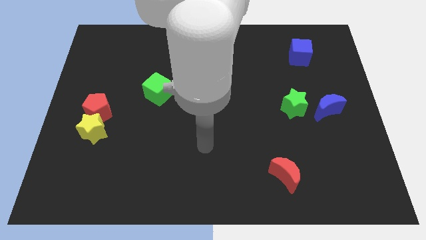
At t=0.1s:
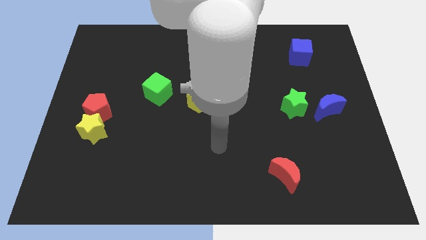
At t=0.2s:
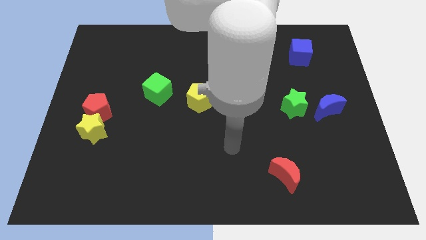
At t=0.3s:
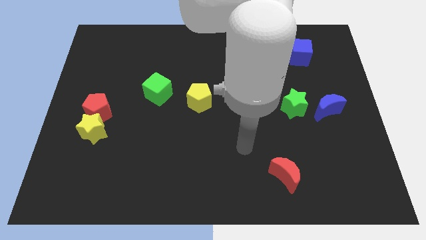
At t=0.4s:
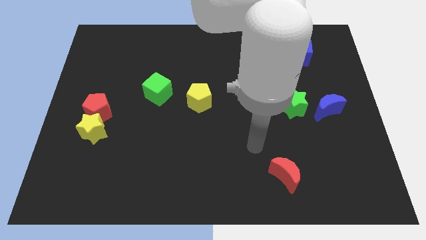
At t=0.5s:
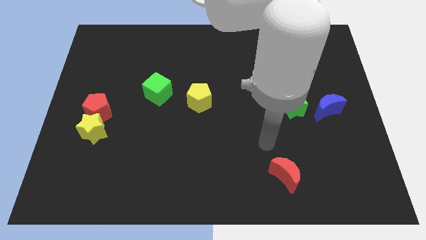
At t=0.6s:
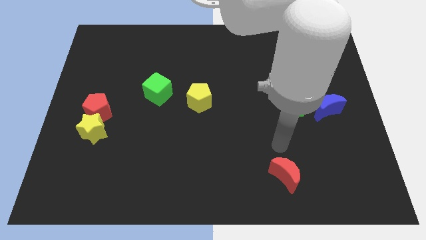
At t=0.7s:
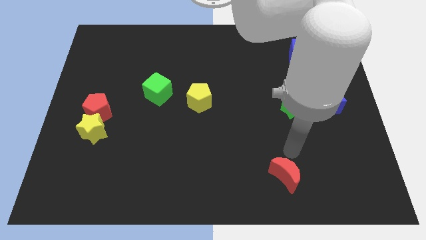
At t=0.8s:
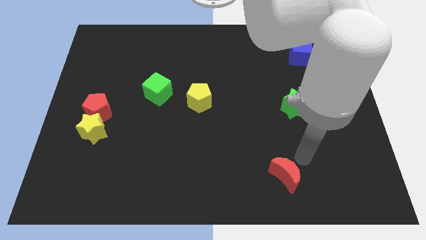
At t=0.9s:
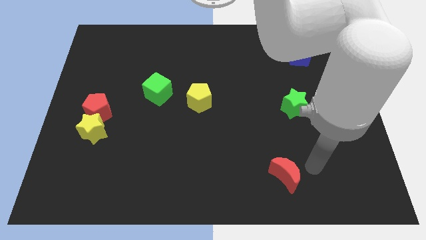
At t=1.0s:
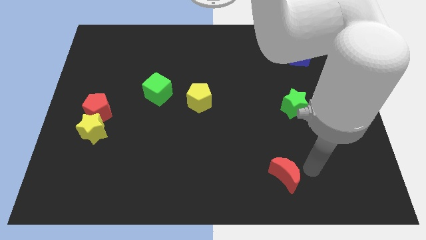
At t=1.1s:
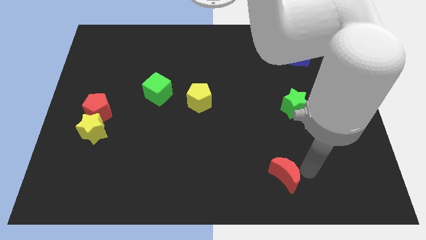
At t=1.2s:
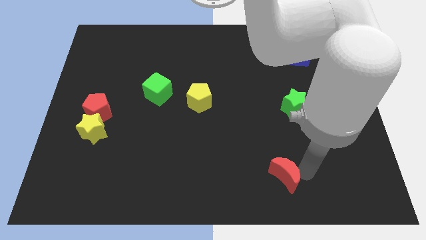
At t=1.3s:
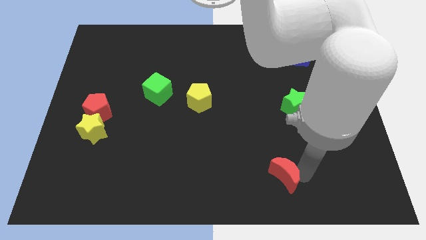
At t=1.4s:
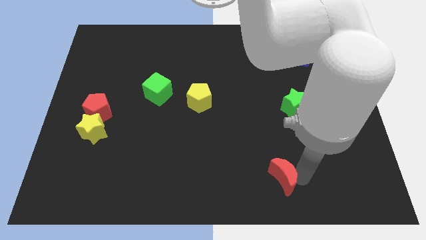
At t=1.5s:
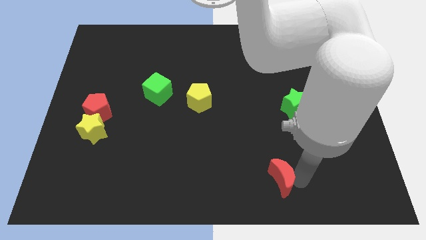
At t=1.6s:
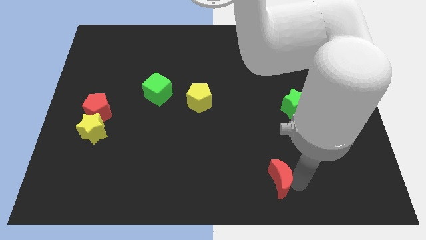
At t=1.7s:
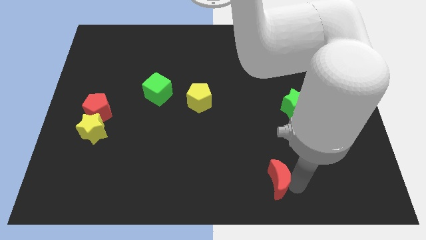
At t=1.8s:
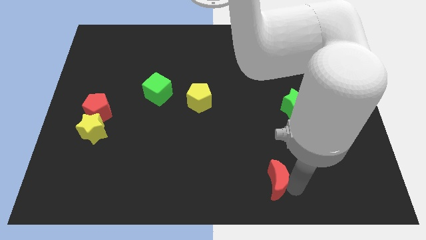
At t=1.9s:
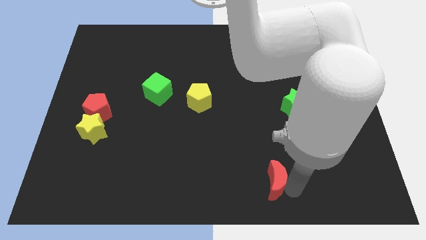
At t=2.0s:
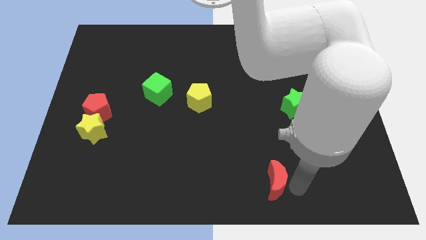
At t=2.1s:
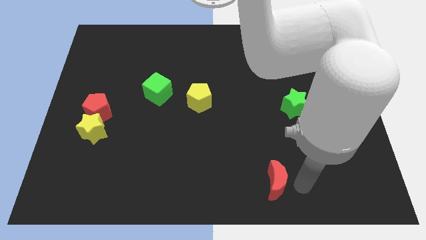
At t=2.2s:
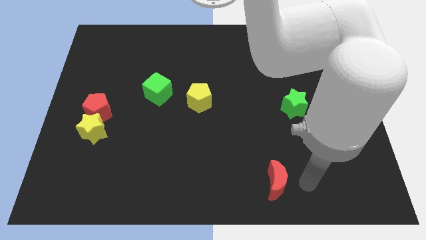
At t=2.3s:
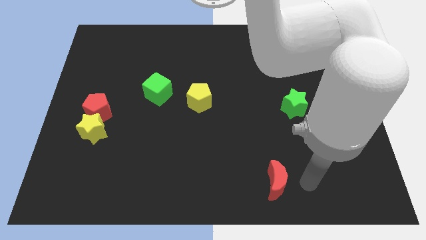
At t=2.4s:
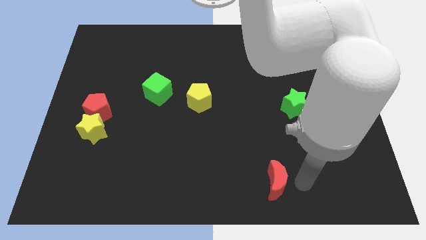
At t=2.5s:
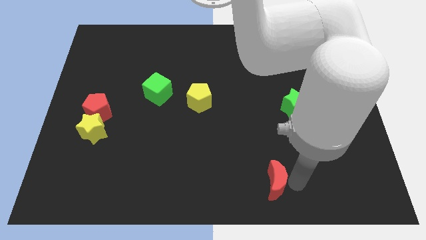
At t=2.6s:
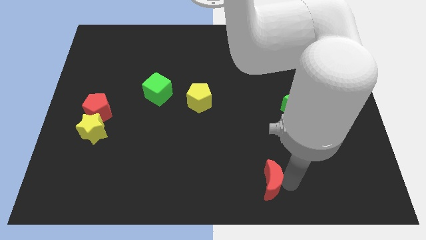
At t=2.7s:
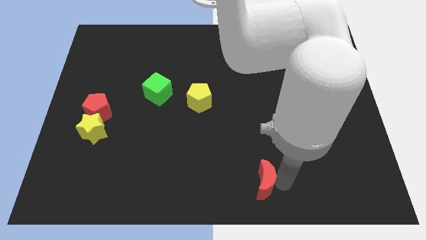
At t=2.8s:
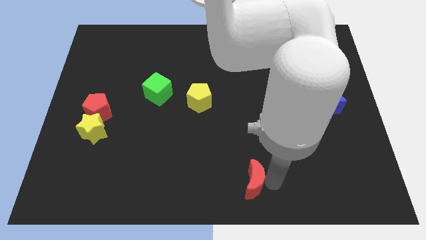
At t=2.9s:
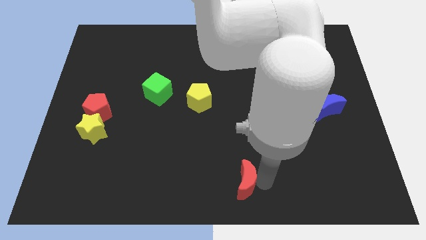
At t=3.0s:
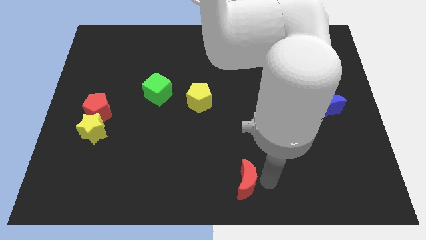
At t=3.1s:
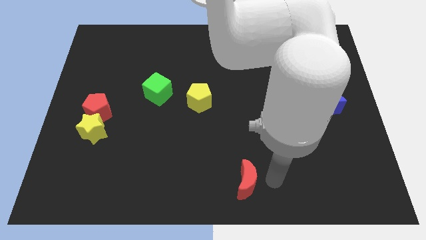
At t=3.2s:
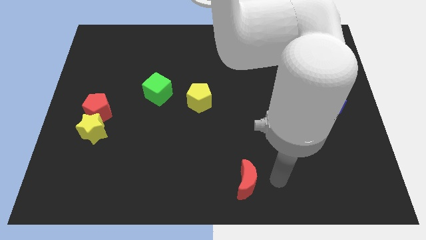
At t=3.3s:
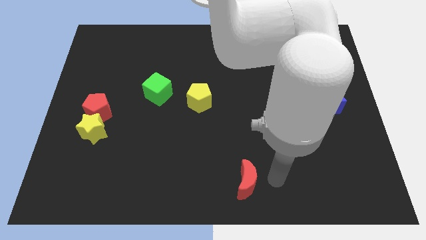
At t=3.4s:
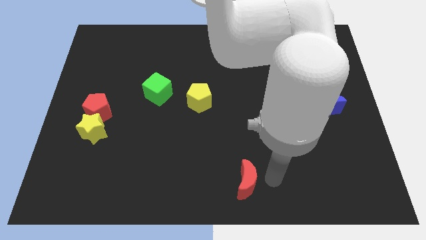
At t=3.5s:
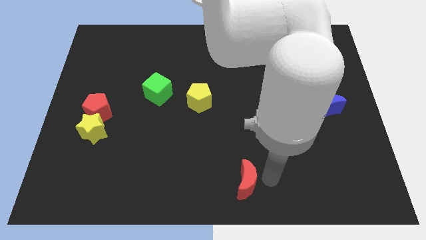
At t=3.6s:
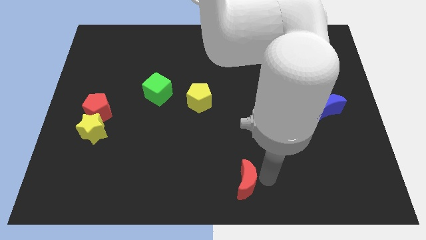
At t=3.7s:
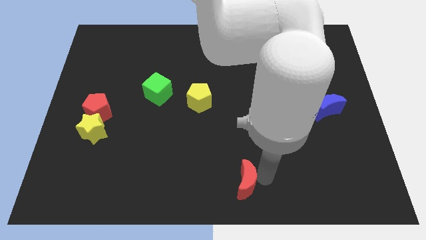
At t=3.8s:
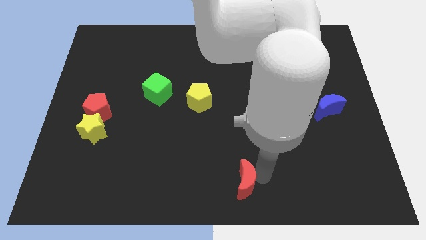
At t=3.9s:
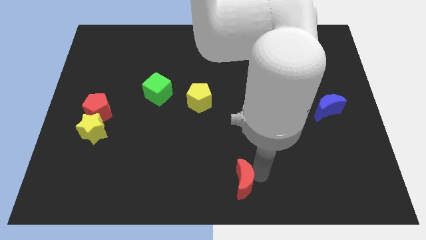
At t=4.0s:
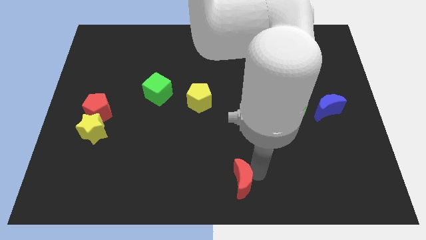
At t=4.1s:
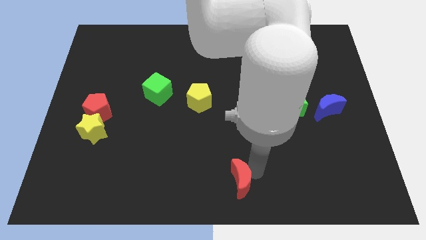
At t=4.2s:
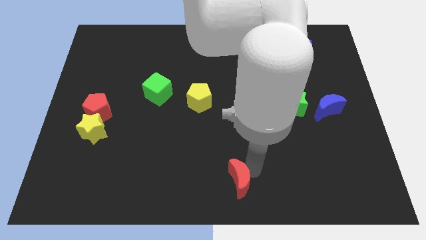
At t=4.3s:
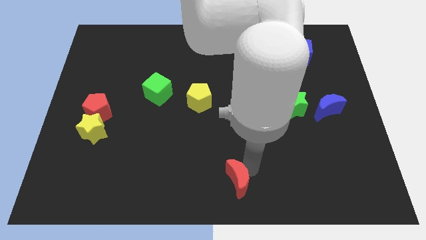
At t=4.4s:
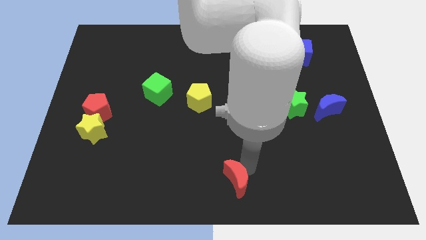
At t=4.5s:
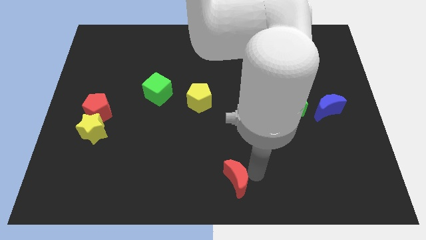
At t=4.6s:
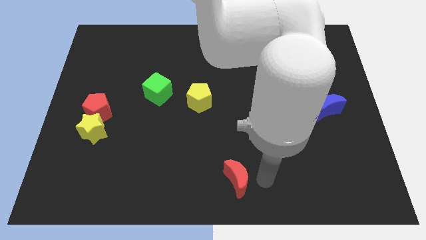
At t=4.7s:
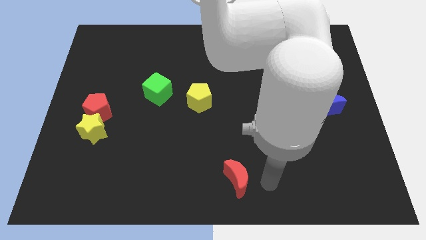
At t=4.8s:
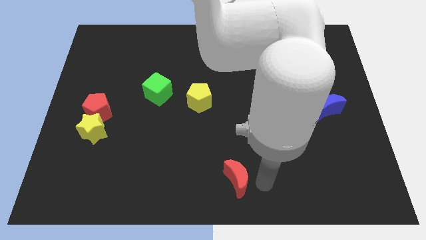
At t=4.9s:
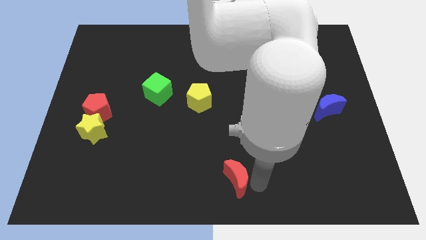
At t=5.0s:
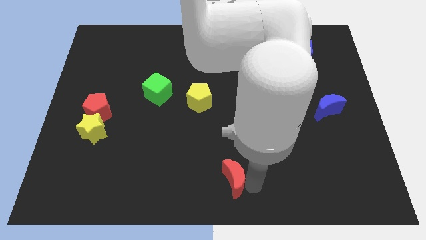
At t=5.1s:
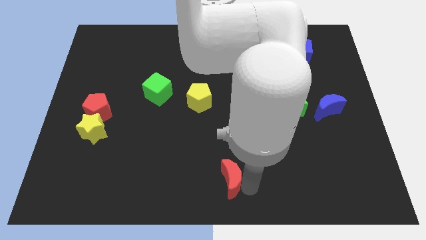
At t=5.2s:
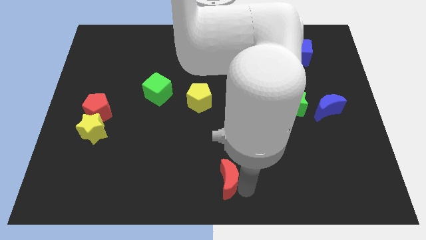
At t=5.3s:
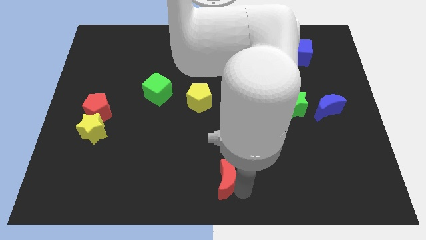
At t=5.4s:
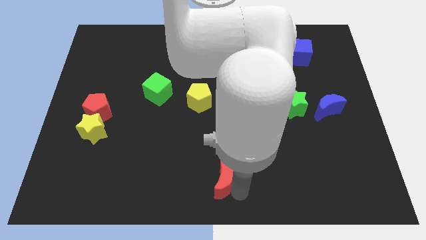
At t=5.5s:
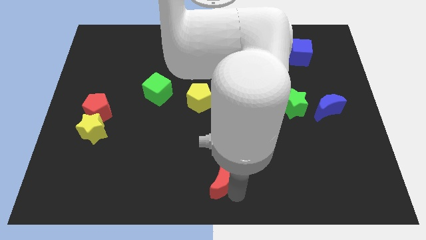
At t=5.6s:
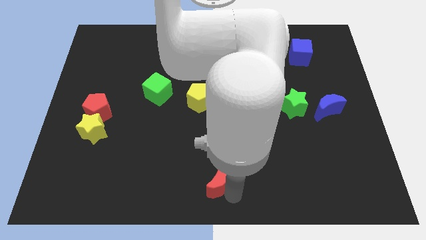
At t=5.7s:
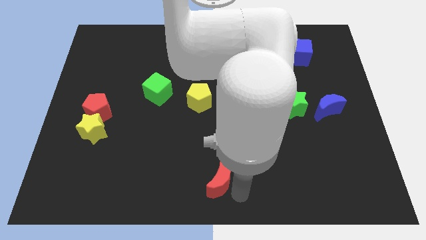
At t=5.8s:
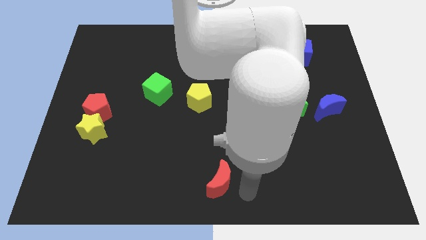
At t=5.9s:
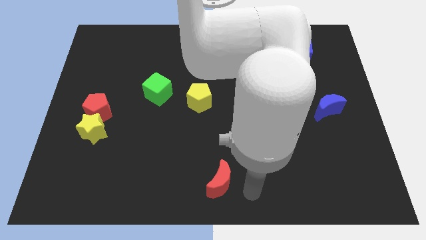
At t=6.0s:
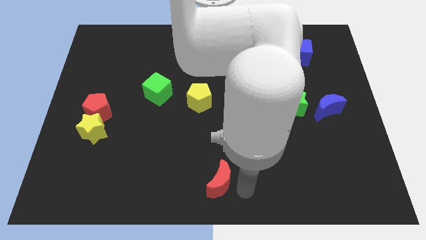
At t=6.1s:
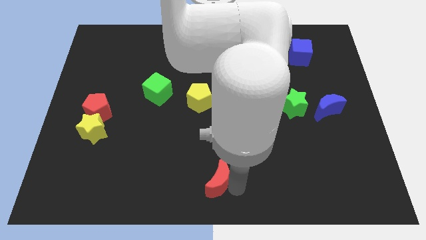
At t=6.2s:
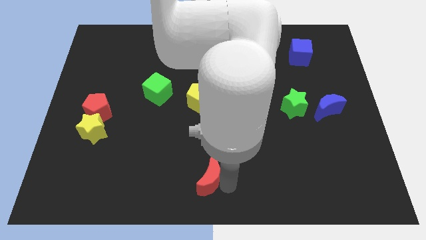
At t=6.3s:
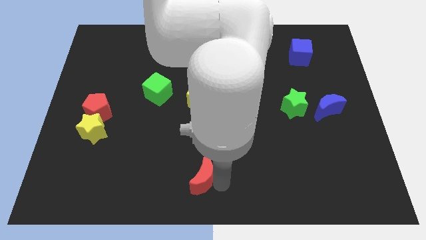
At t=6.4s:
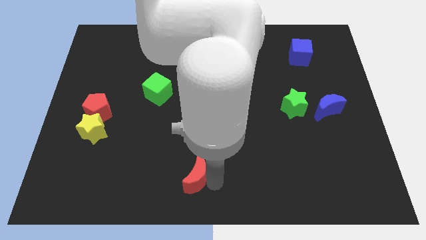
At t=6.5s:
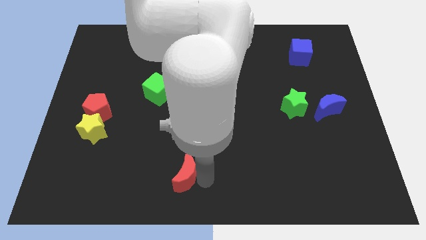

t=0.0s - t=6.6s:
push the red moon left

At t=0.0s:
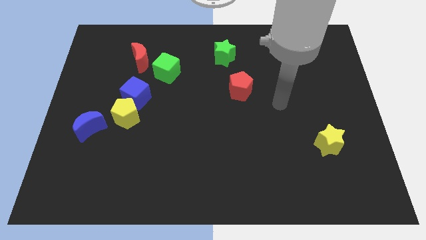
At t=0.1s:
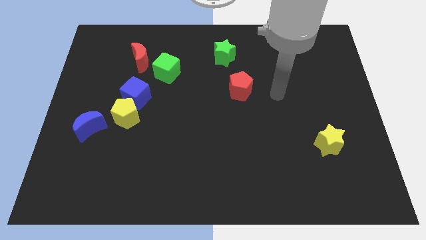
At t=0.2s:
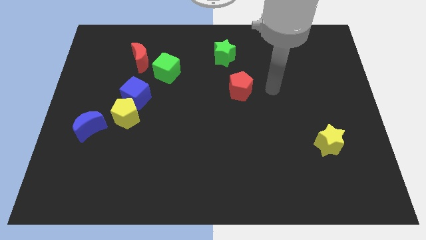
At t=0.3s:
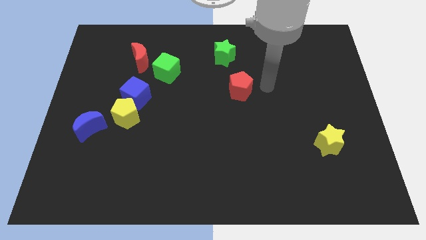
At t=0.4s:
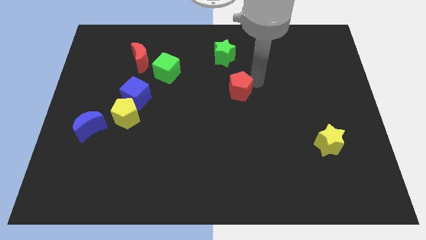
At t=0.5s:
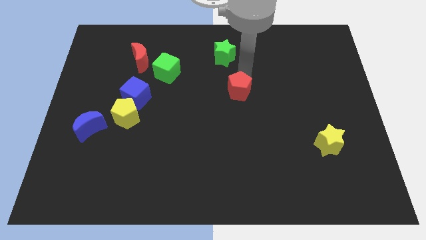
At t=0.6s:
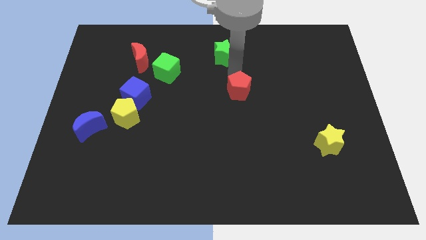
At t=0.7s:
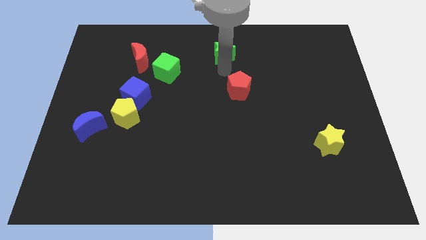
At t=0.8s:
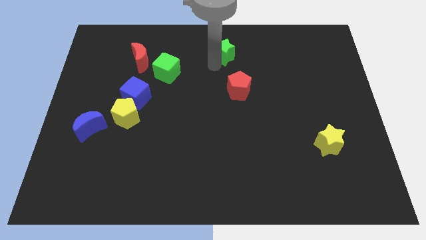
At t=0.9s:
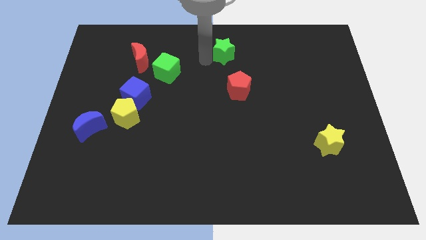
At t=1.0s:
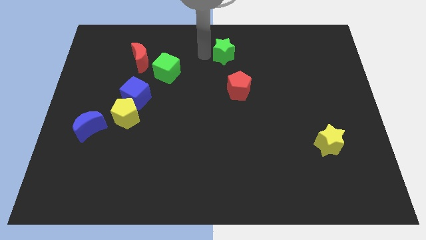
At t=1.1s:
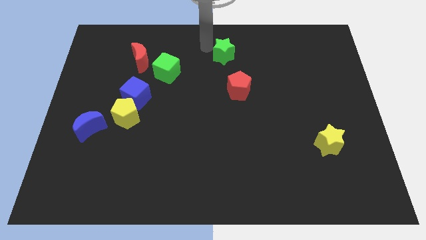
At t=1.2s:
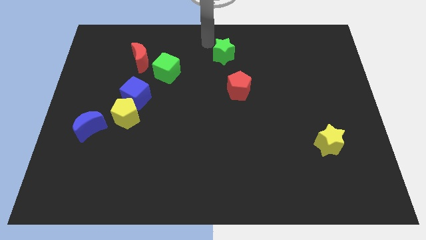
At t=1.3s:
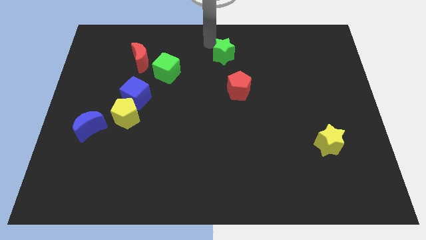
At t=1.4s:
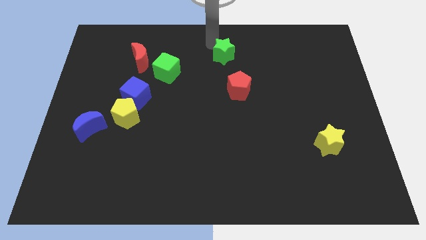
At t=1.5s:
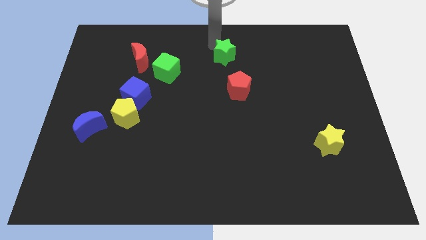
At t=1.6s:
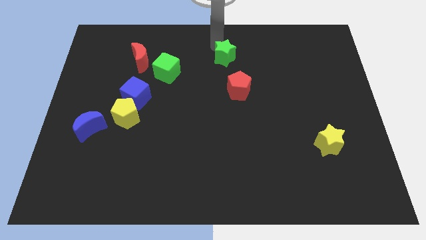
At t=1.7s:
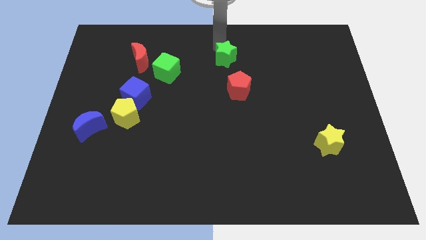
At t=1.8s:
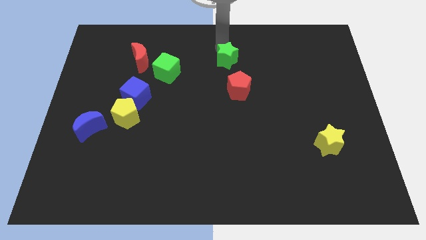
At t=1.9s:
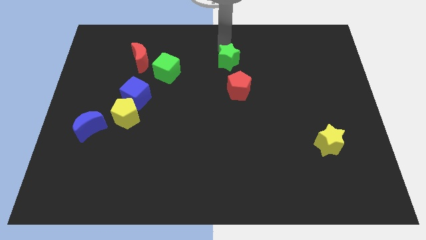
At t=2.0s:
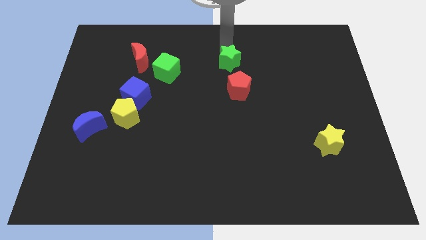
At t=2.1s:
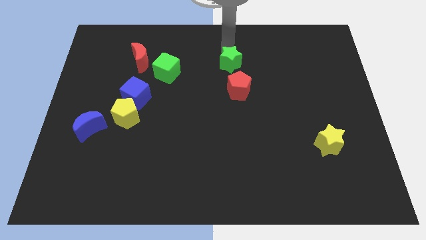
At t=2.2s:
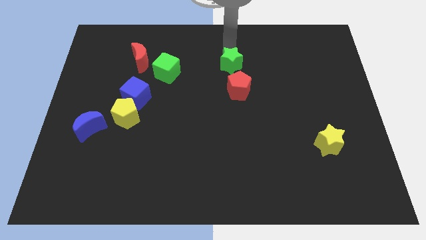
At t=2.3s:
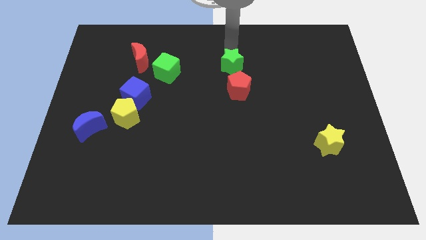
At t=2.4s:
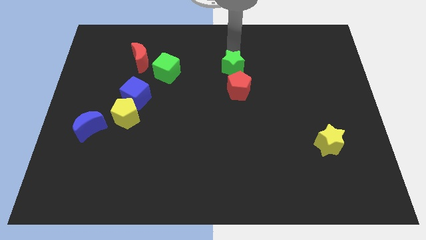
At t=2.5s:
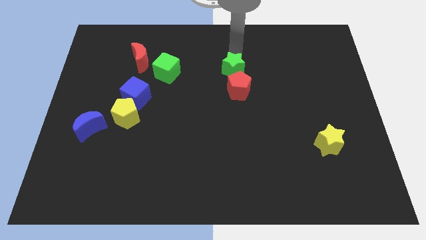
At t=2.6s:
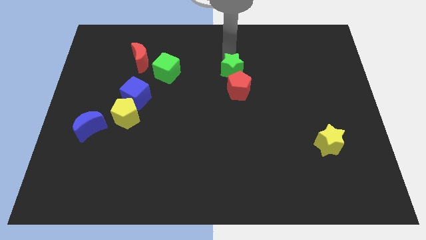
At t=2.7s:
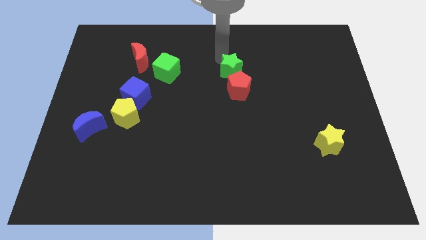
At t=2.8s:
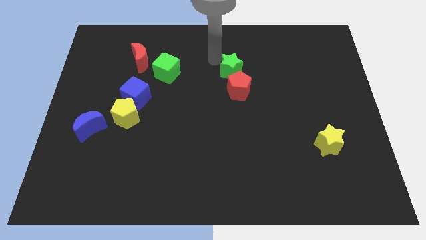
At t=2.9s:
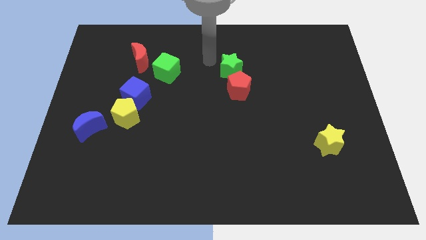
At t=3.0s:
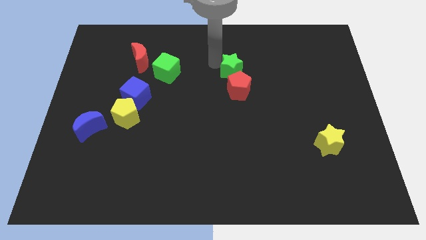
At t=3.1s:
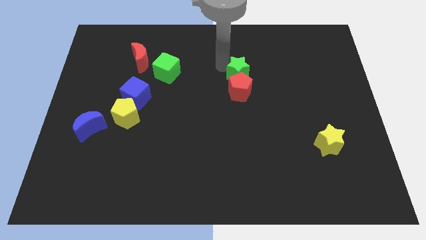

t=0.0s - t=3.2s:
move the green star downwards and to the right diagonally a little bit
